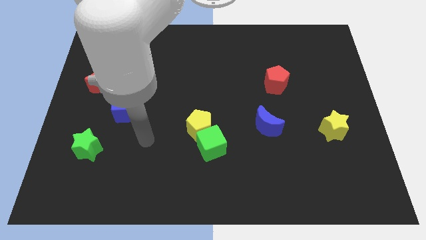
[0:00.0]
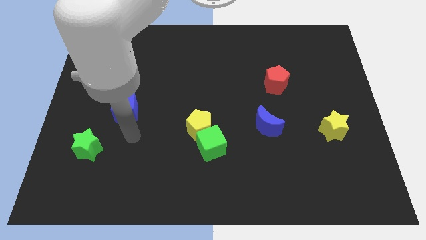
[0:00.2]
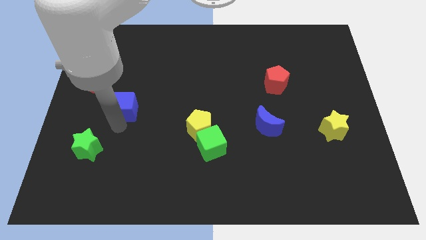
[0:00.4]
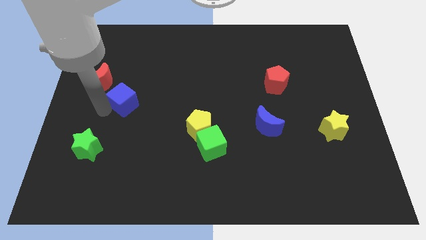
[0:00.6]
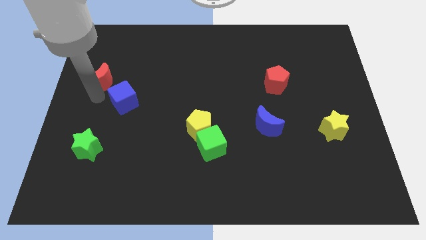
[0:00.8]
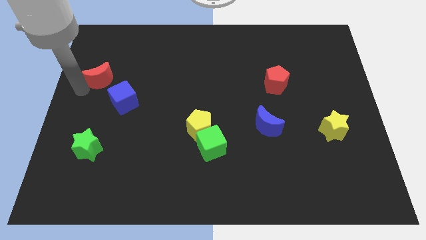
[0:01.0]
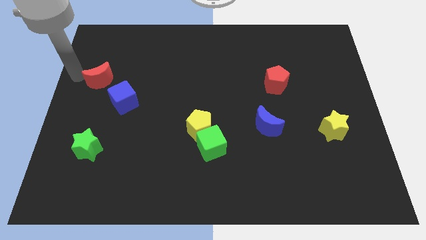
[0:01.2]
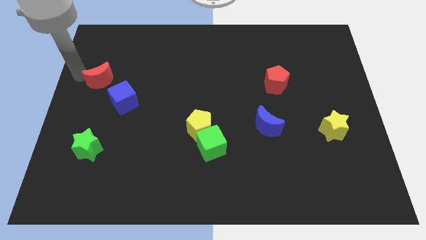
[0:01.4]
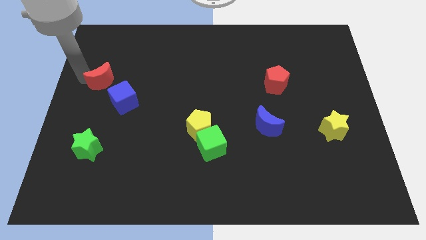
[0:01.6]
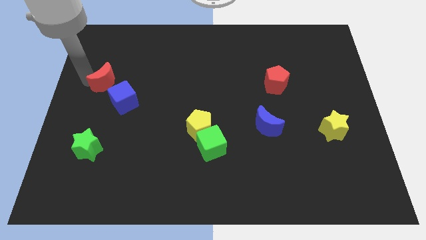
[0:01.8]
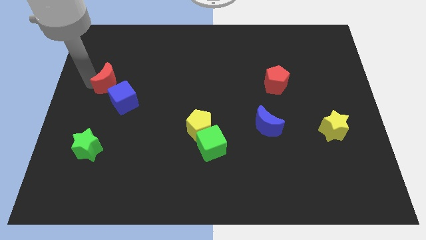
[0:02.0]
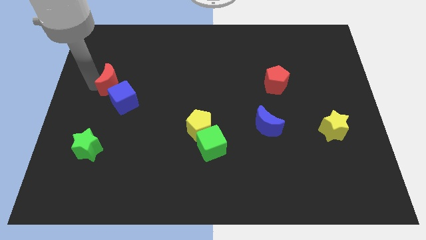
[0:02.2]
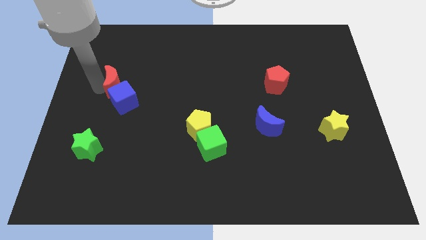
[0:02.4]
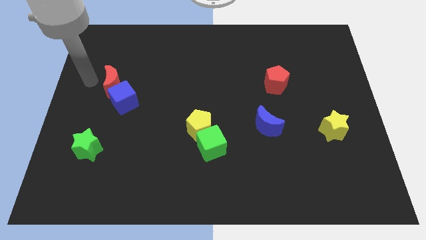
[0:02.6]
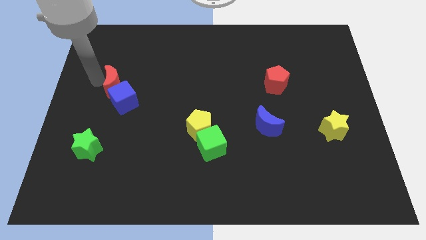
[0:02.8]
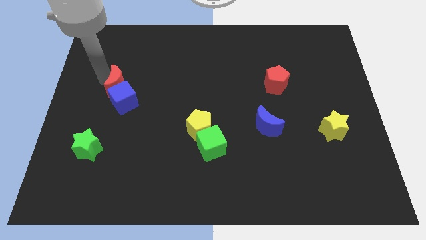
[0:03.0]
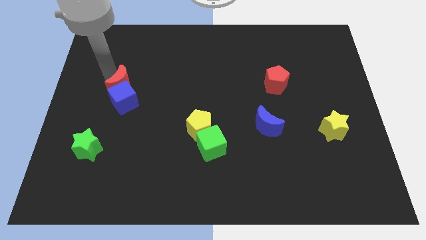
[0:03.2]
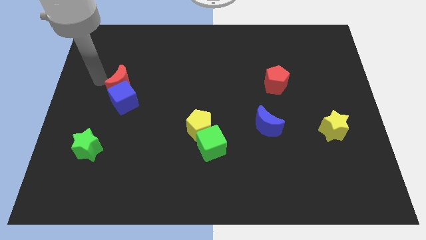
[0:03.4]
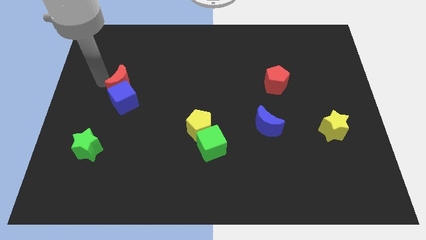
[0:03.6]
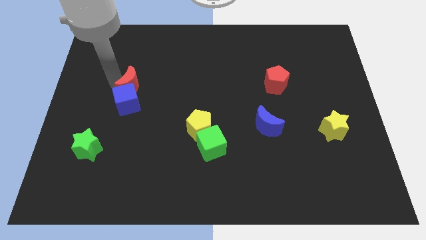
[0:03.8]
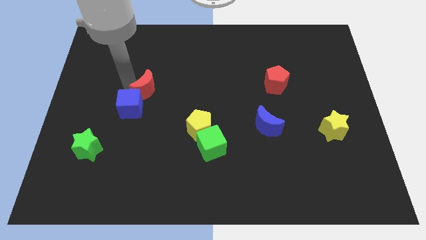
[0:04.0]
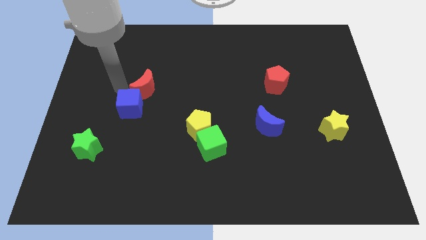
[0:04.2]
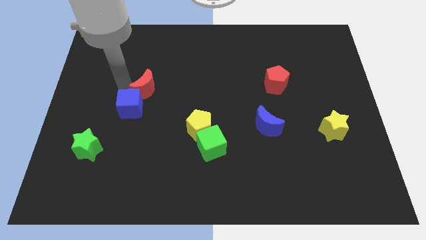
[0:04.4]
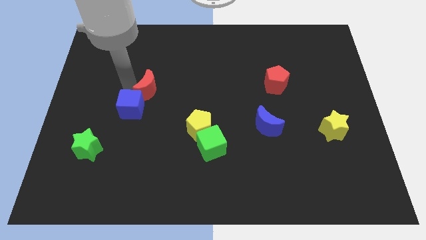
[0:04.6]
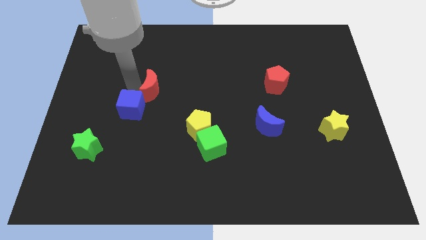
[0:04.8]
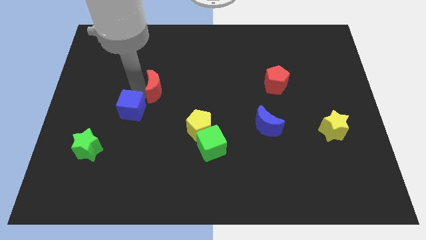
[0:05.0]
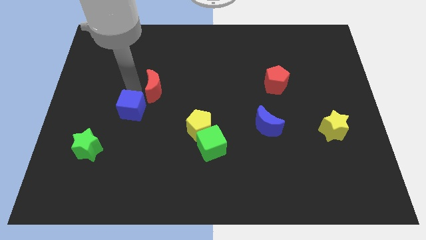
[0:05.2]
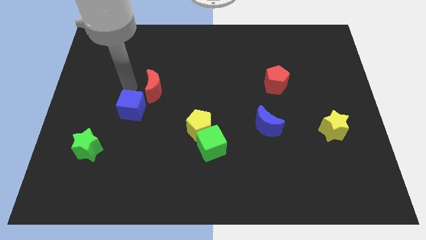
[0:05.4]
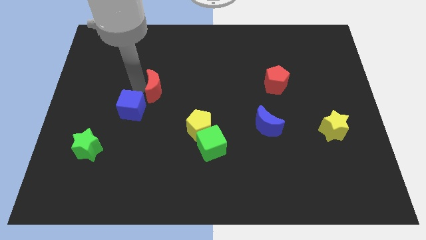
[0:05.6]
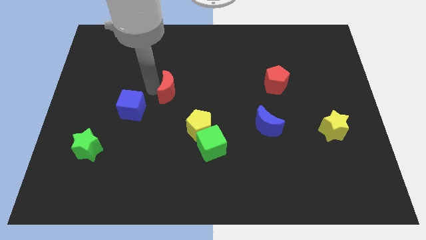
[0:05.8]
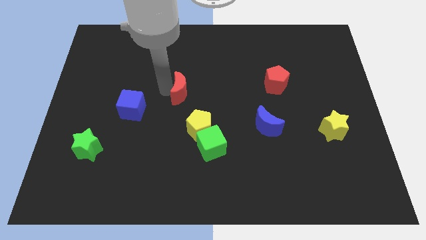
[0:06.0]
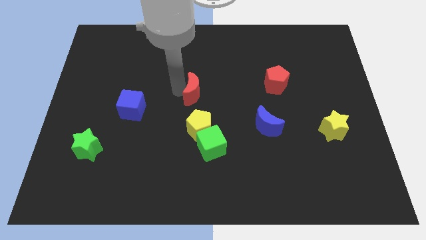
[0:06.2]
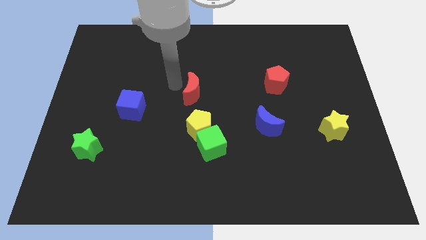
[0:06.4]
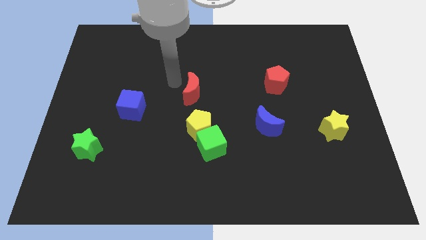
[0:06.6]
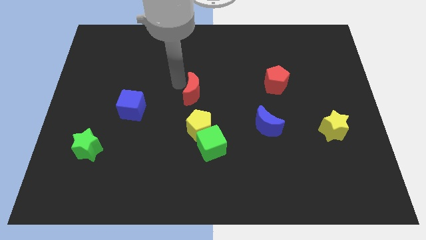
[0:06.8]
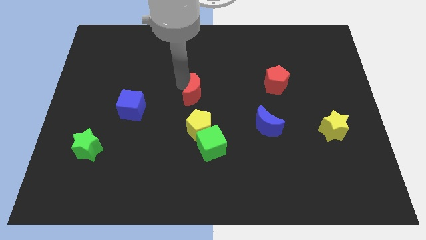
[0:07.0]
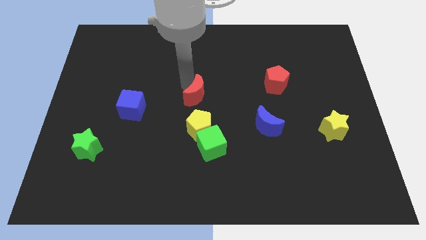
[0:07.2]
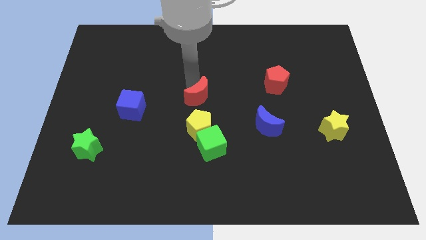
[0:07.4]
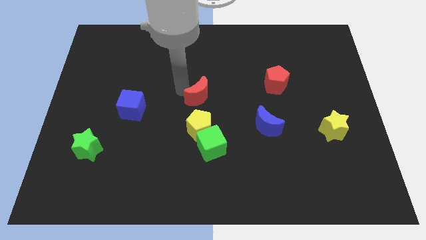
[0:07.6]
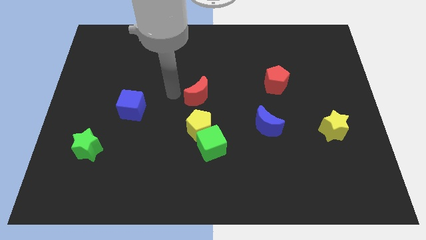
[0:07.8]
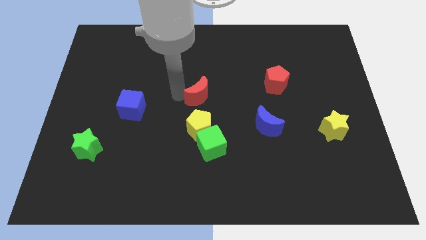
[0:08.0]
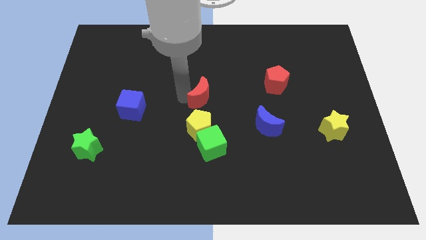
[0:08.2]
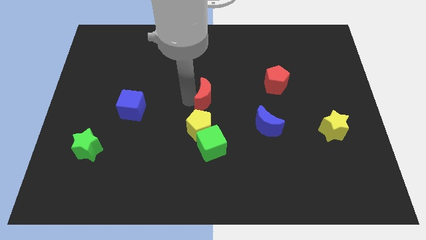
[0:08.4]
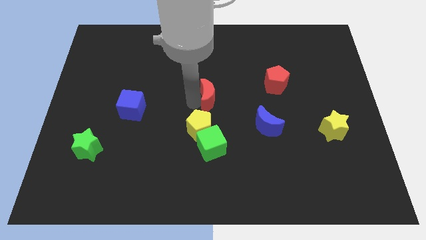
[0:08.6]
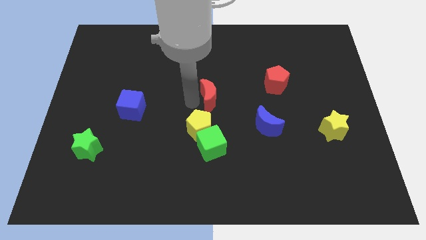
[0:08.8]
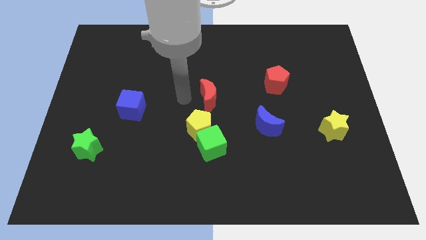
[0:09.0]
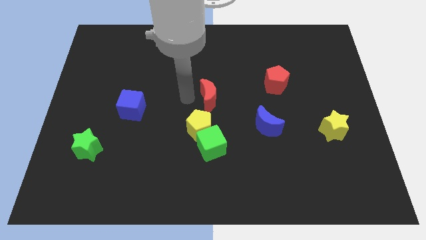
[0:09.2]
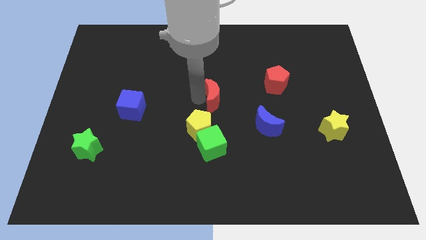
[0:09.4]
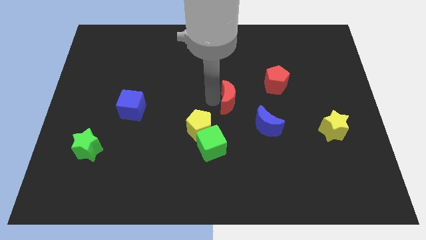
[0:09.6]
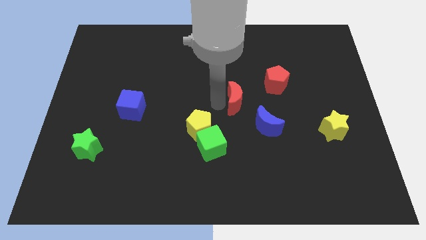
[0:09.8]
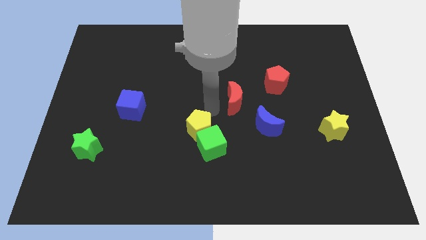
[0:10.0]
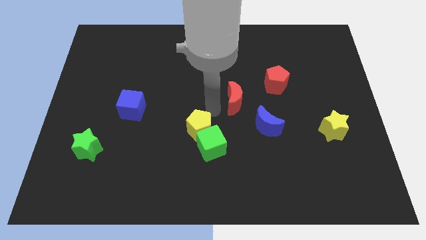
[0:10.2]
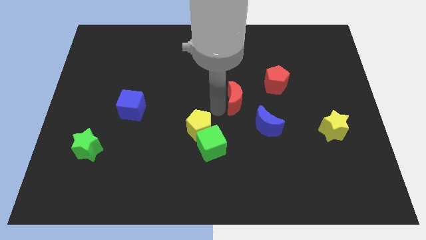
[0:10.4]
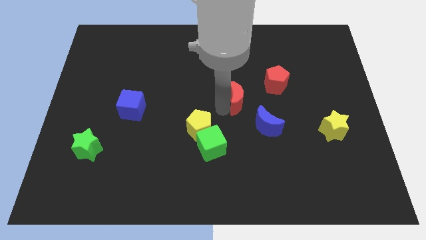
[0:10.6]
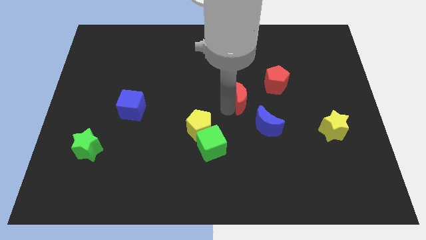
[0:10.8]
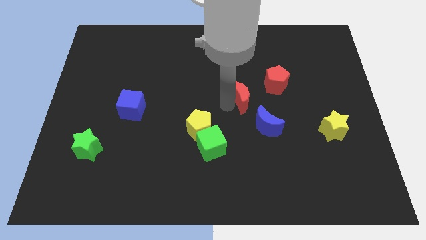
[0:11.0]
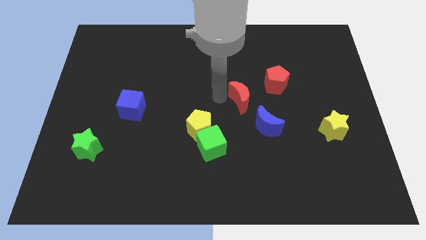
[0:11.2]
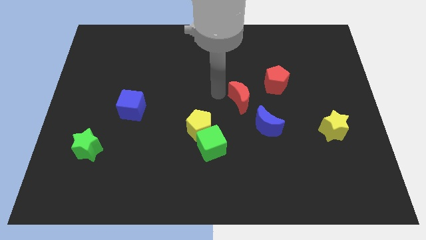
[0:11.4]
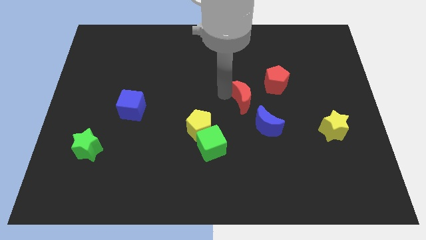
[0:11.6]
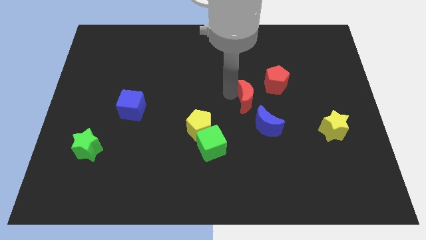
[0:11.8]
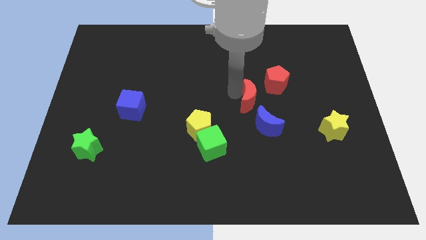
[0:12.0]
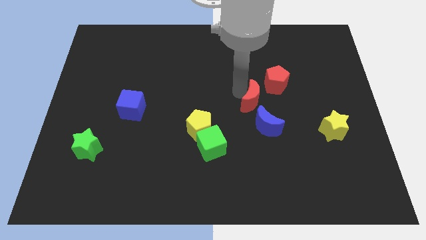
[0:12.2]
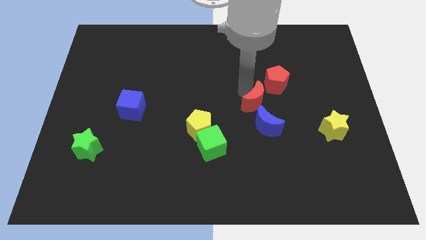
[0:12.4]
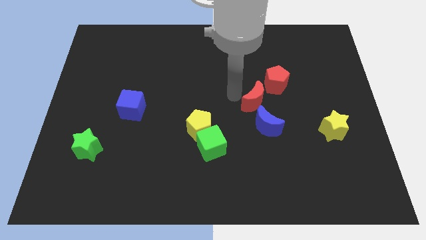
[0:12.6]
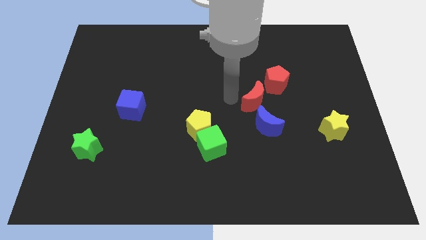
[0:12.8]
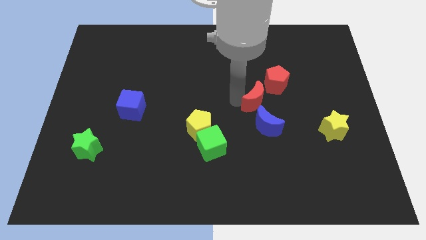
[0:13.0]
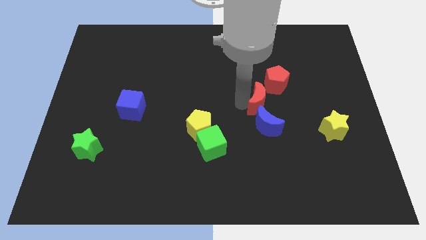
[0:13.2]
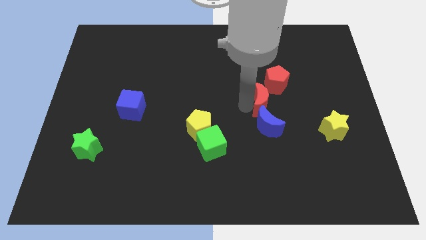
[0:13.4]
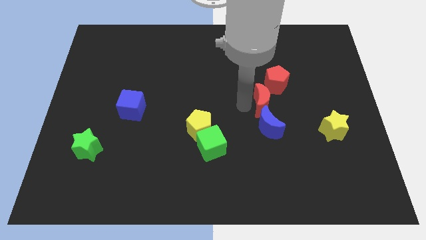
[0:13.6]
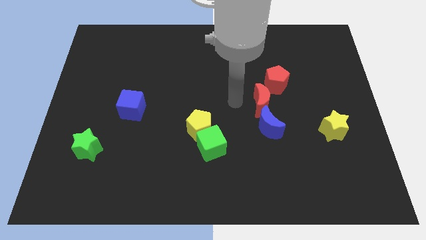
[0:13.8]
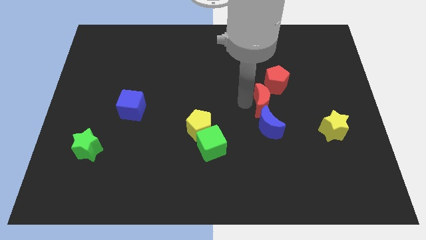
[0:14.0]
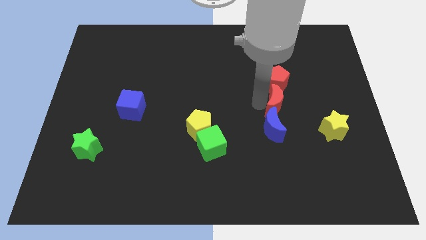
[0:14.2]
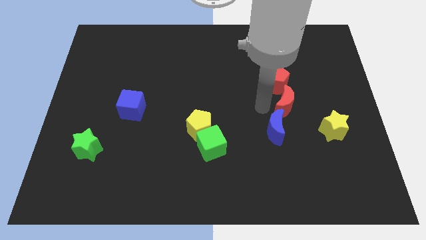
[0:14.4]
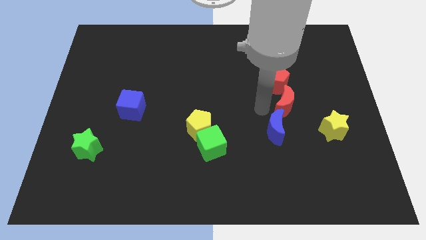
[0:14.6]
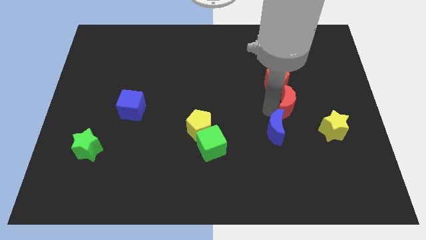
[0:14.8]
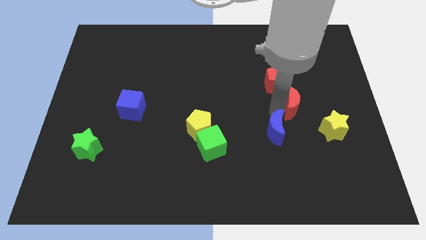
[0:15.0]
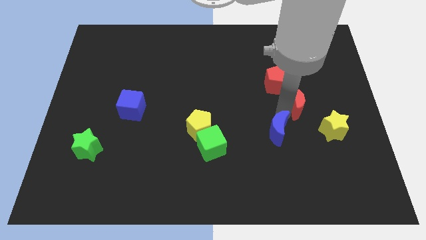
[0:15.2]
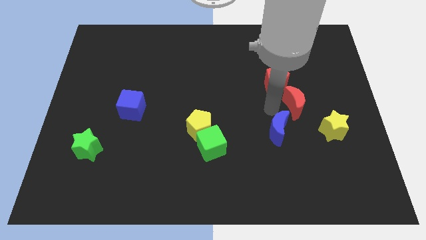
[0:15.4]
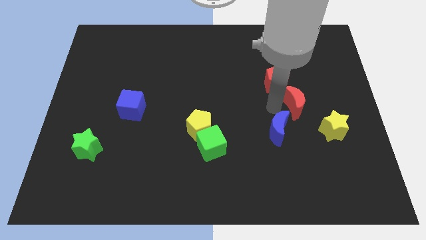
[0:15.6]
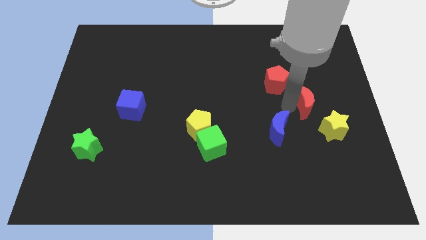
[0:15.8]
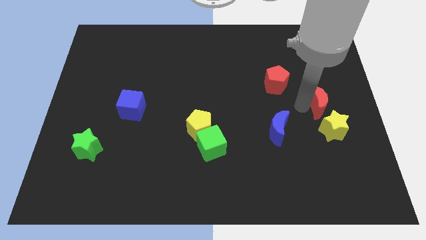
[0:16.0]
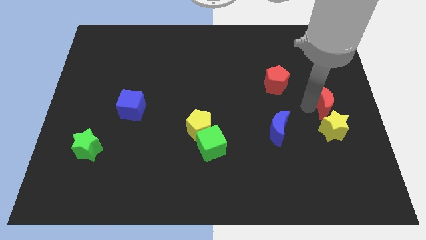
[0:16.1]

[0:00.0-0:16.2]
push the red moon to the center right
